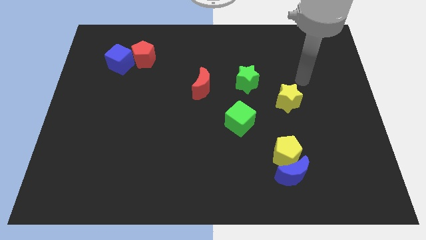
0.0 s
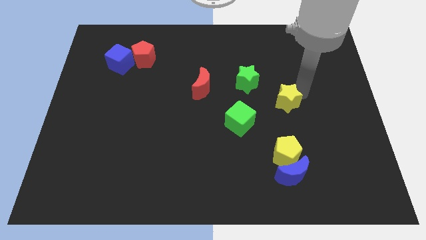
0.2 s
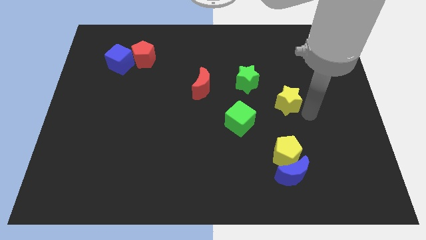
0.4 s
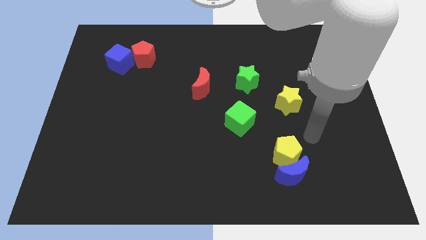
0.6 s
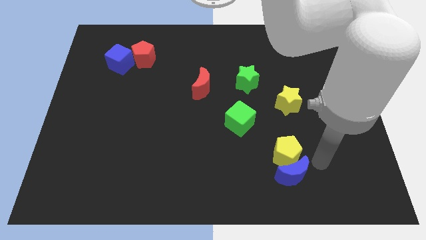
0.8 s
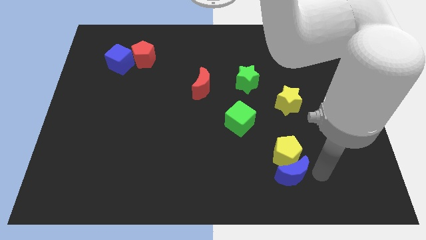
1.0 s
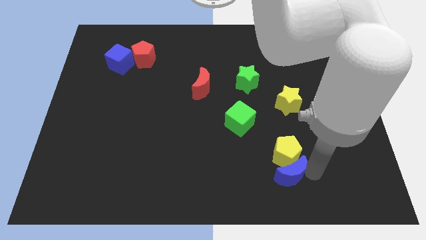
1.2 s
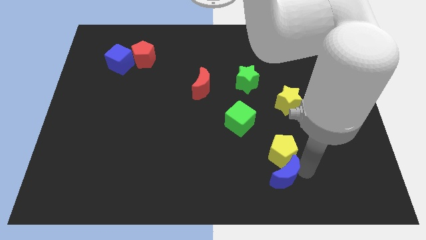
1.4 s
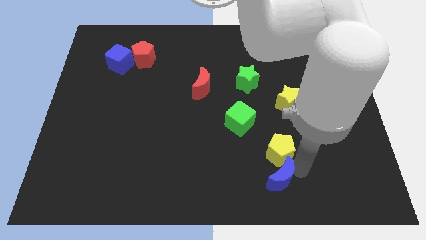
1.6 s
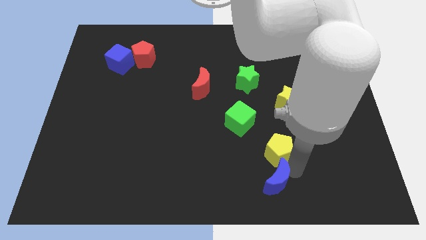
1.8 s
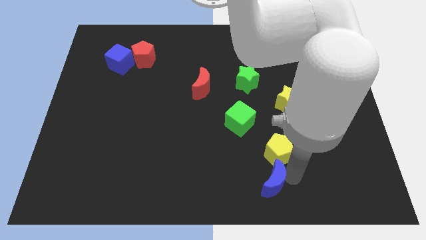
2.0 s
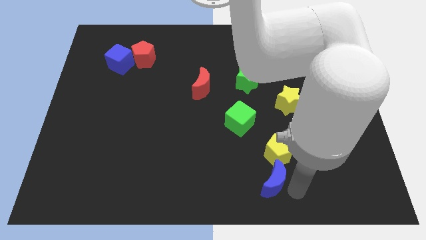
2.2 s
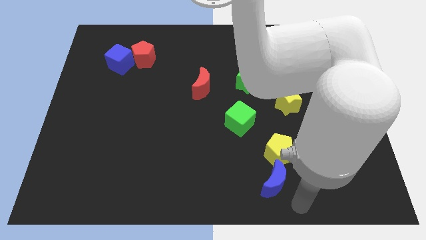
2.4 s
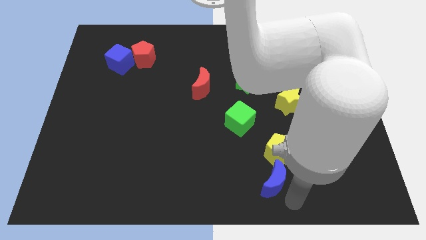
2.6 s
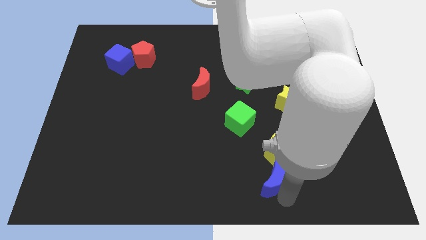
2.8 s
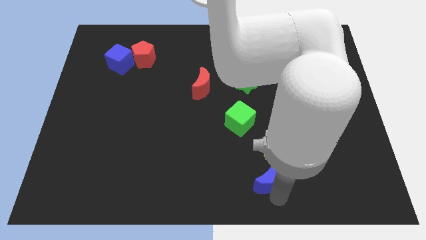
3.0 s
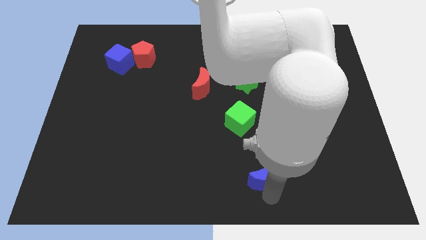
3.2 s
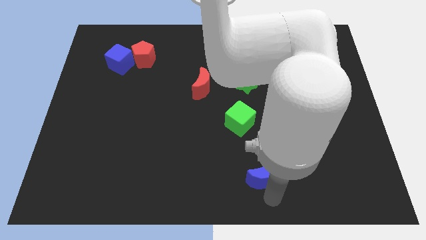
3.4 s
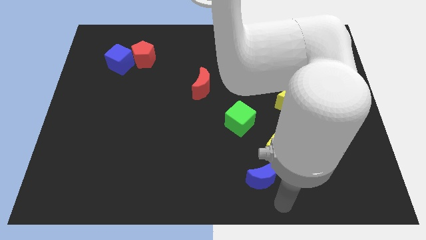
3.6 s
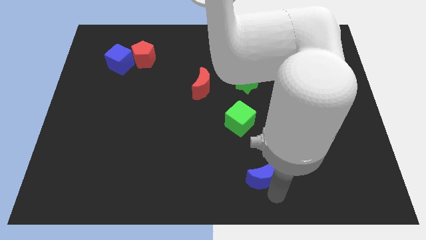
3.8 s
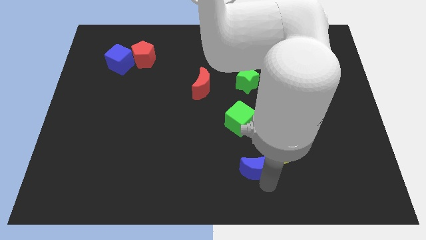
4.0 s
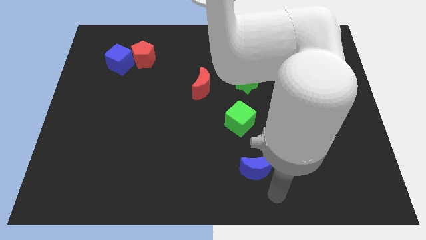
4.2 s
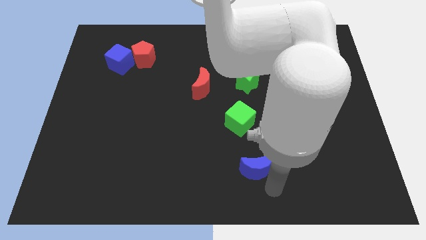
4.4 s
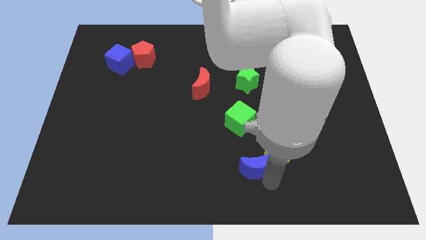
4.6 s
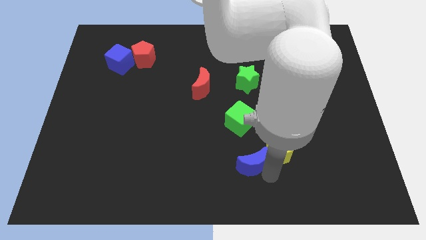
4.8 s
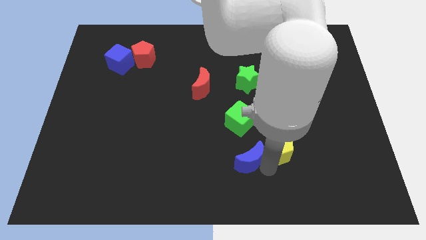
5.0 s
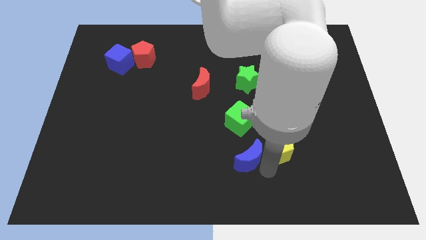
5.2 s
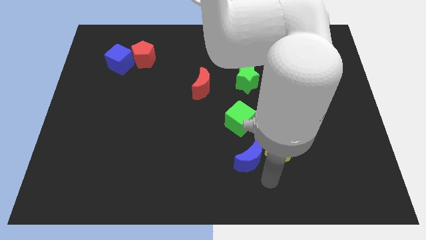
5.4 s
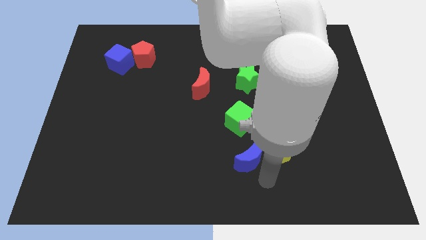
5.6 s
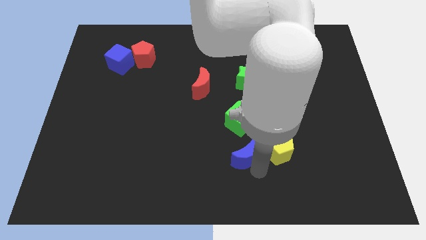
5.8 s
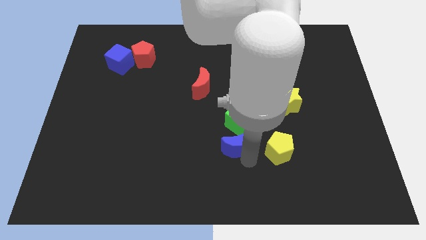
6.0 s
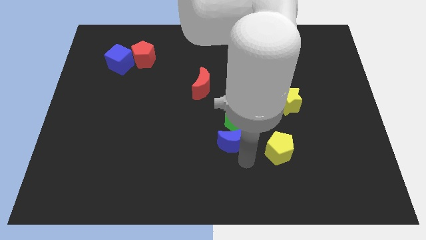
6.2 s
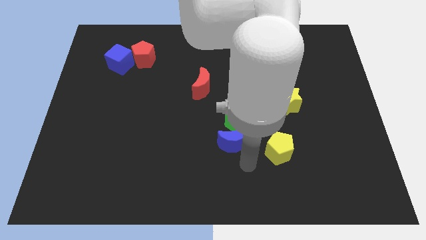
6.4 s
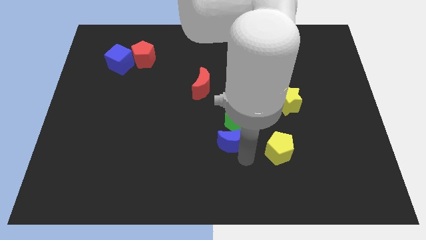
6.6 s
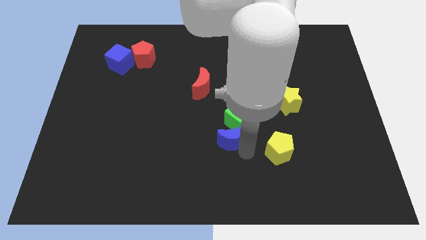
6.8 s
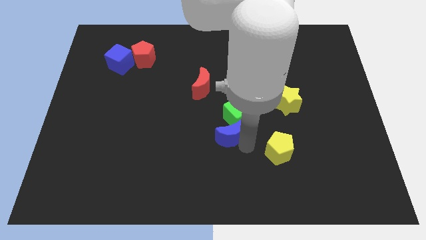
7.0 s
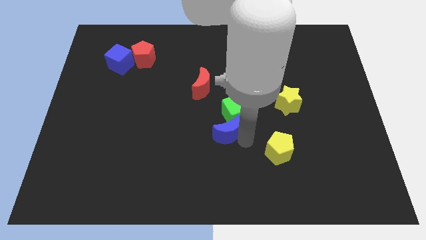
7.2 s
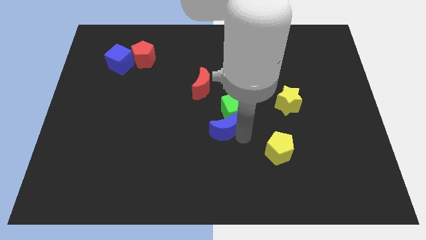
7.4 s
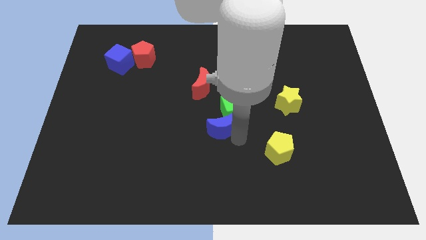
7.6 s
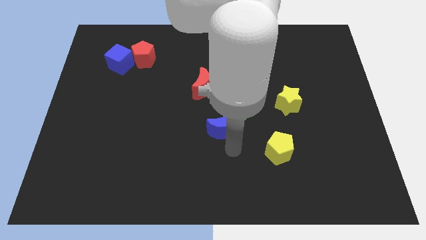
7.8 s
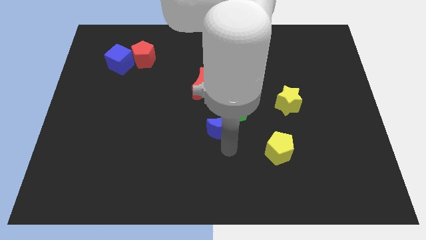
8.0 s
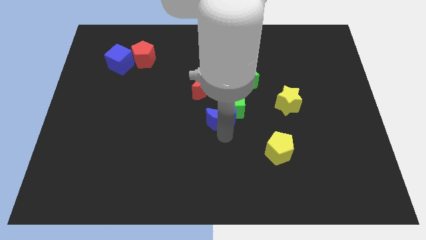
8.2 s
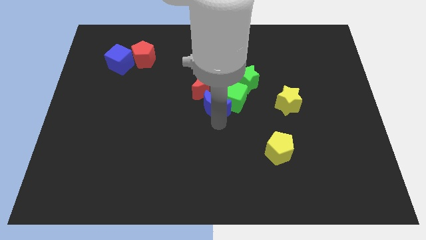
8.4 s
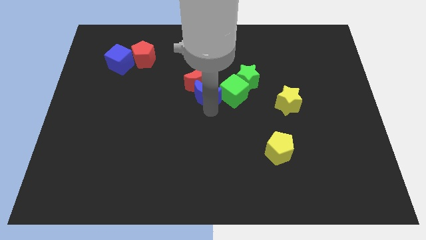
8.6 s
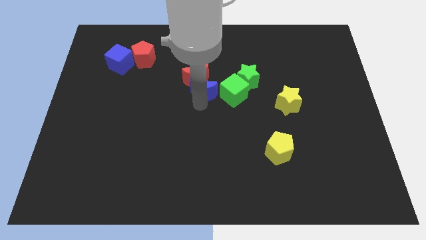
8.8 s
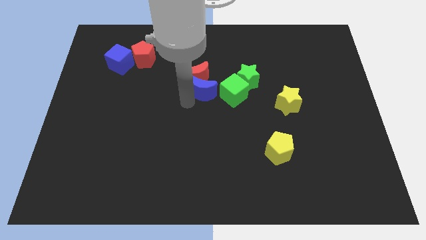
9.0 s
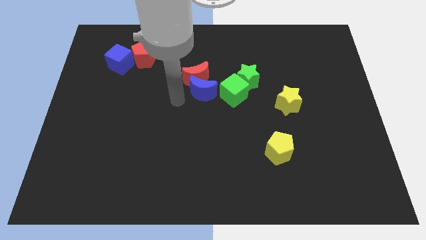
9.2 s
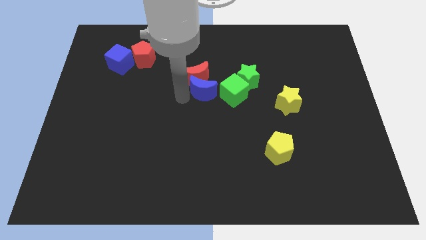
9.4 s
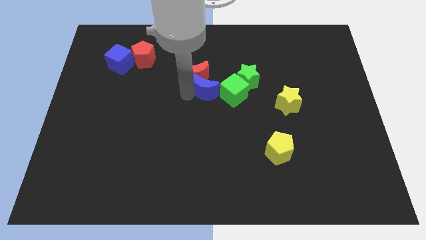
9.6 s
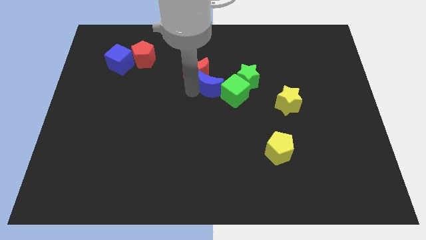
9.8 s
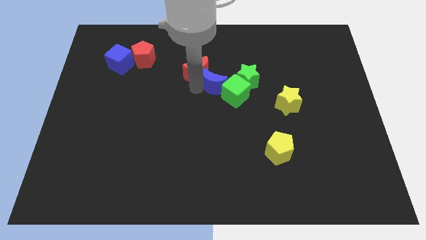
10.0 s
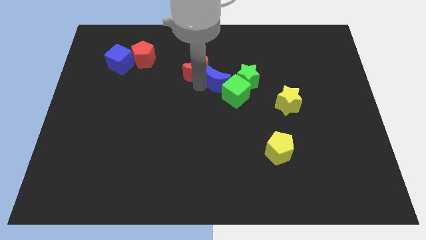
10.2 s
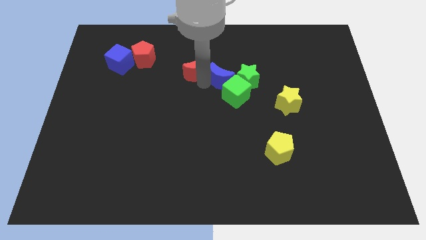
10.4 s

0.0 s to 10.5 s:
slide the blue moon to the top left side of the green star
